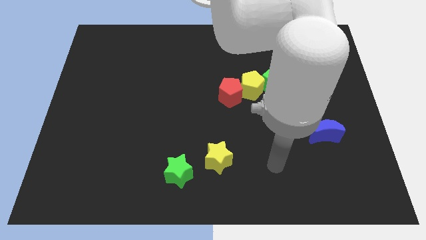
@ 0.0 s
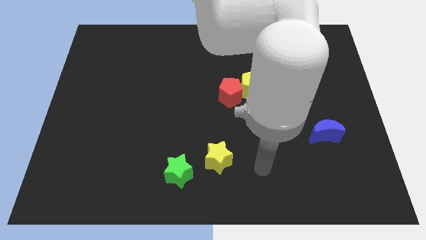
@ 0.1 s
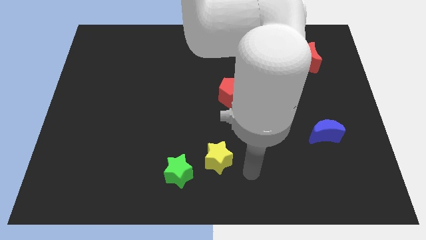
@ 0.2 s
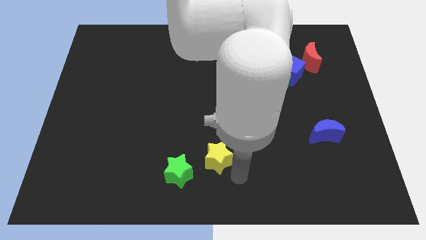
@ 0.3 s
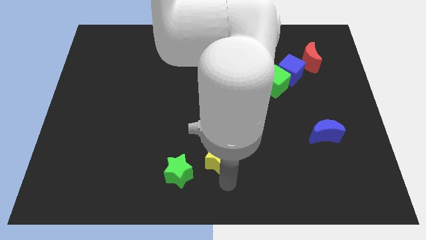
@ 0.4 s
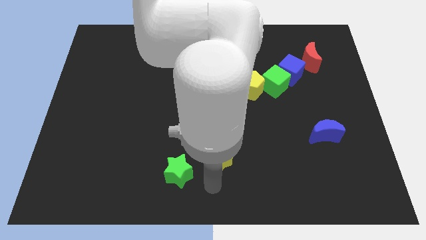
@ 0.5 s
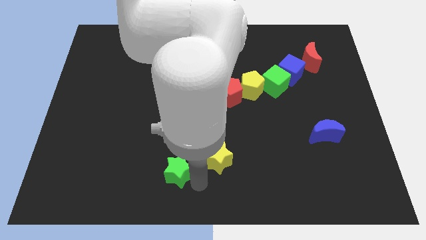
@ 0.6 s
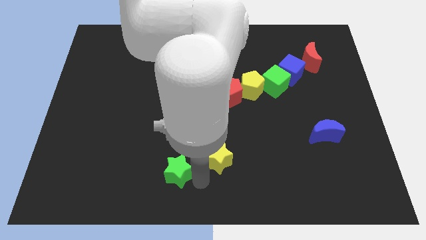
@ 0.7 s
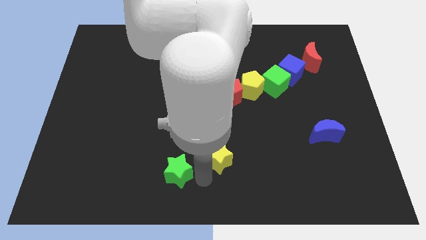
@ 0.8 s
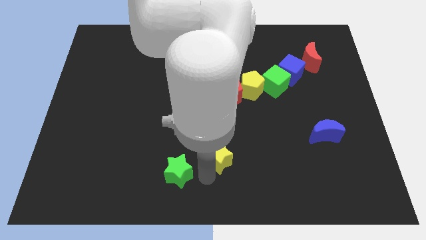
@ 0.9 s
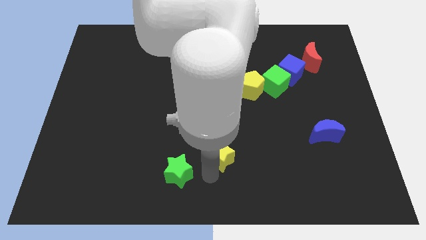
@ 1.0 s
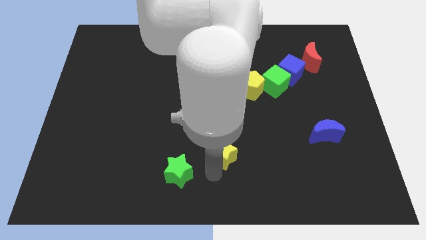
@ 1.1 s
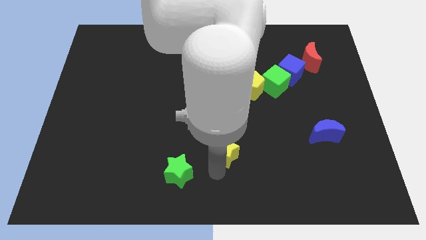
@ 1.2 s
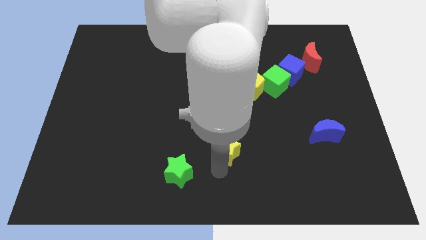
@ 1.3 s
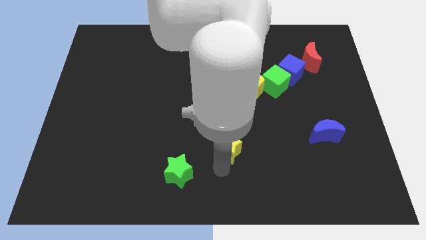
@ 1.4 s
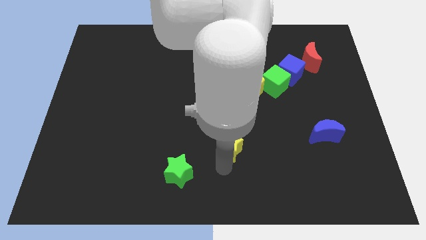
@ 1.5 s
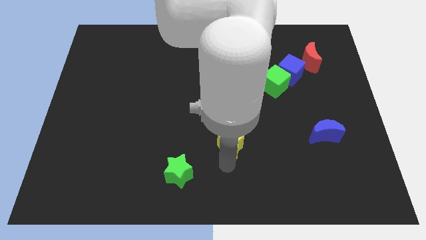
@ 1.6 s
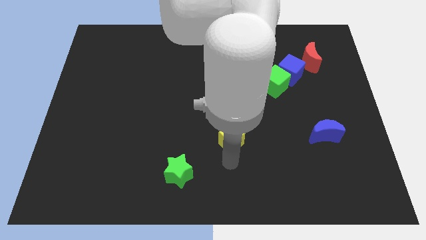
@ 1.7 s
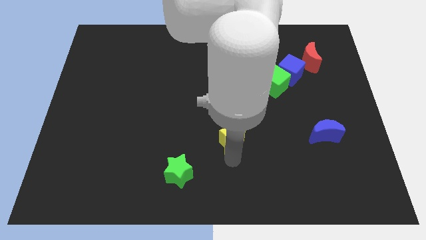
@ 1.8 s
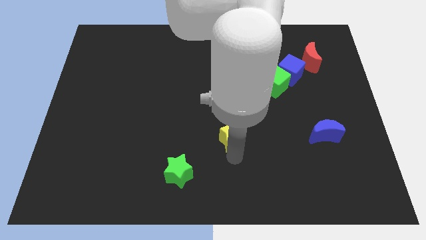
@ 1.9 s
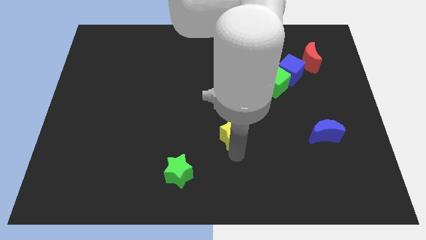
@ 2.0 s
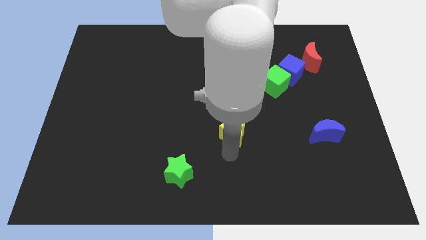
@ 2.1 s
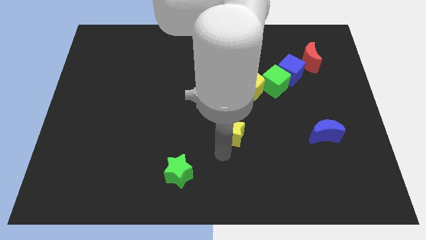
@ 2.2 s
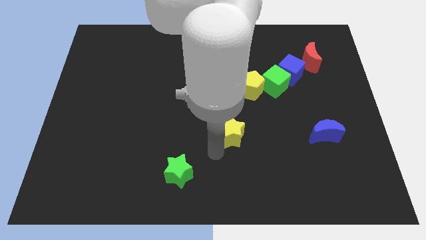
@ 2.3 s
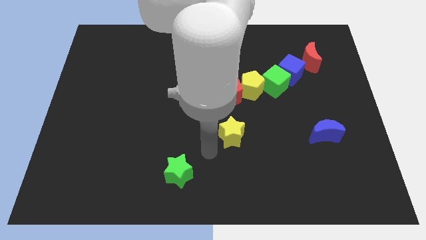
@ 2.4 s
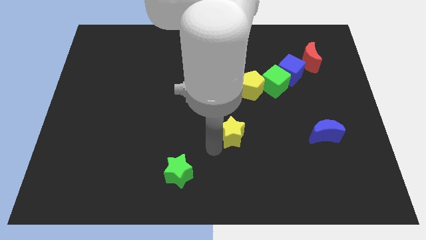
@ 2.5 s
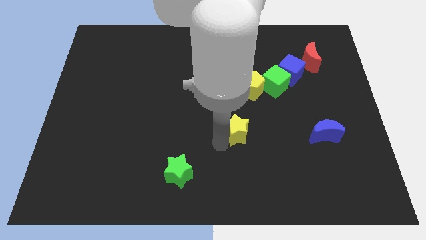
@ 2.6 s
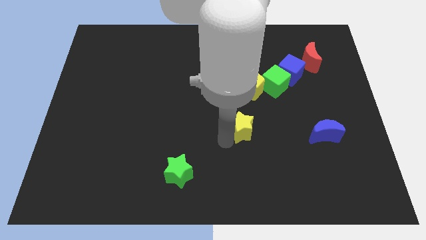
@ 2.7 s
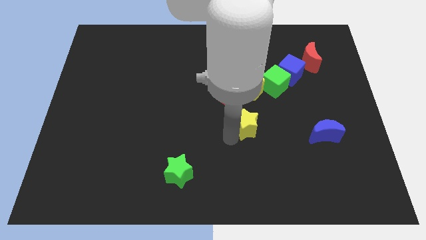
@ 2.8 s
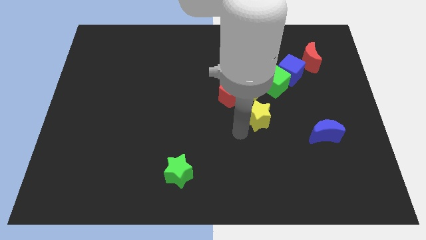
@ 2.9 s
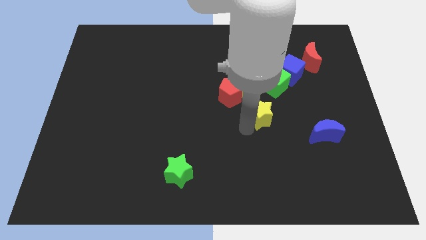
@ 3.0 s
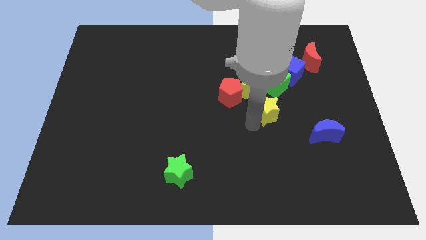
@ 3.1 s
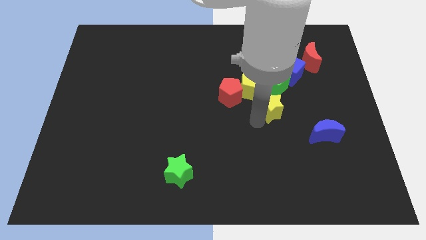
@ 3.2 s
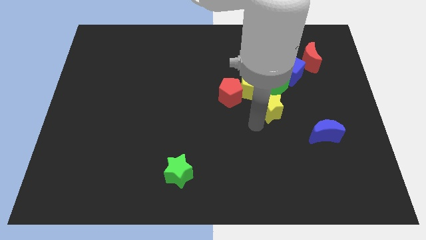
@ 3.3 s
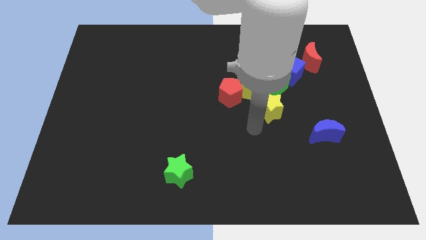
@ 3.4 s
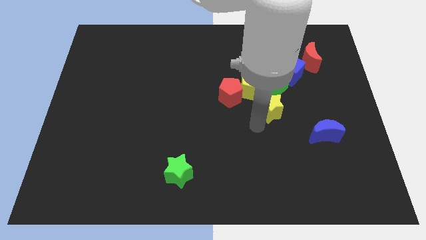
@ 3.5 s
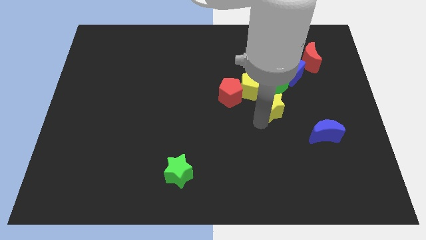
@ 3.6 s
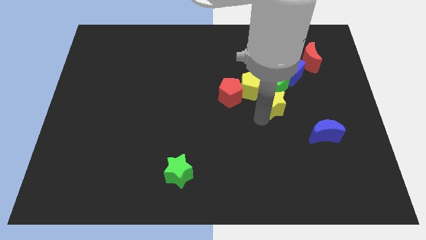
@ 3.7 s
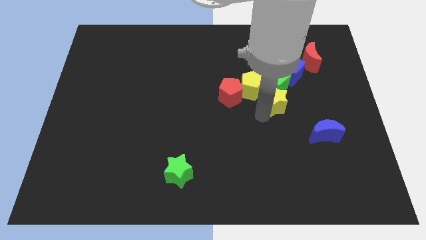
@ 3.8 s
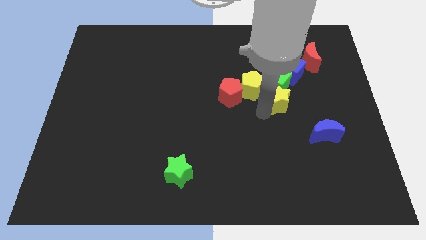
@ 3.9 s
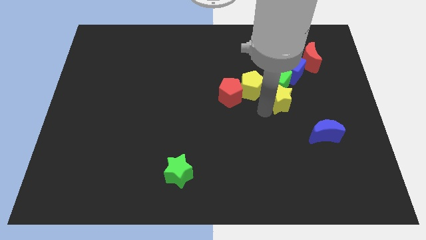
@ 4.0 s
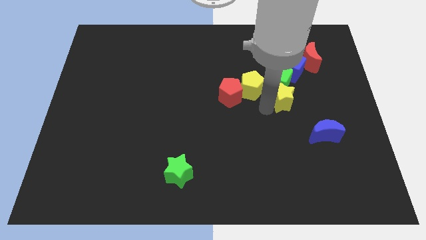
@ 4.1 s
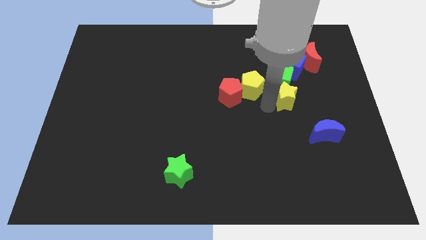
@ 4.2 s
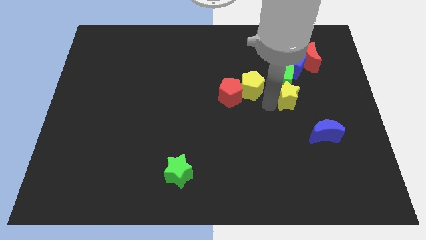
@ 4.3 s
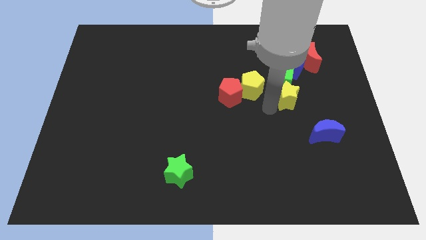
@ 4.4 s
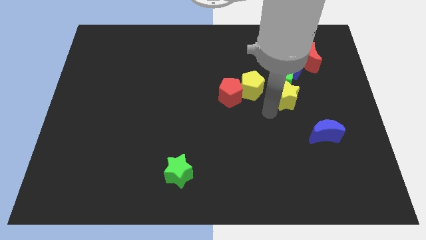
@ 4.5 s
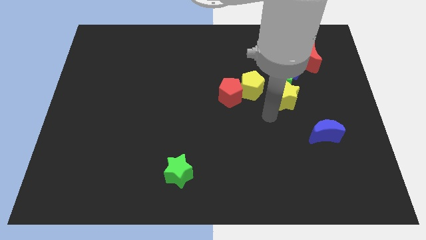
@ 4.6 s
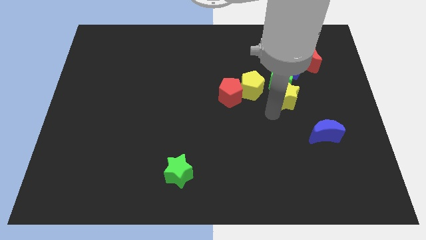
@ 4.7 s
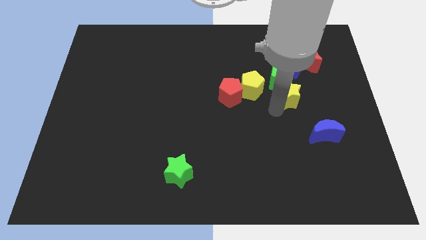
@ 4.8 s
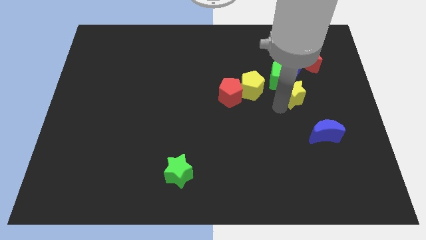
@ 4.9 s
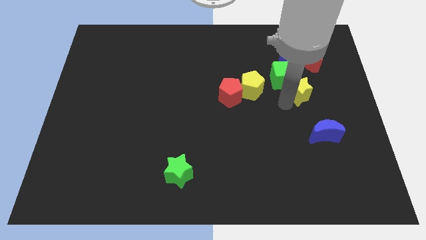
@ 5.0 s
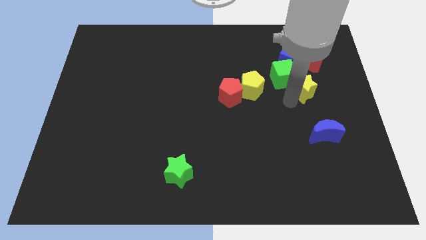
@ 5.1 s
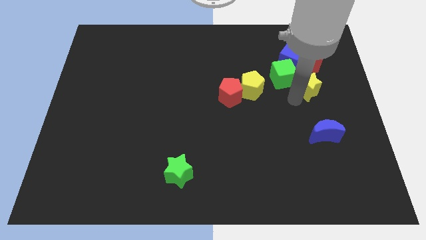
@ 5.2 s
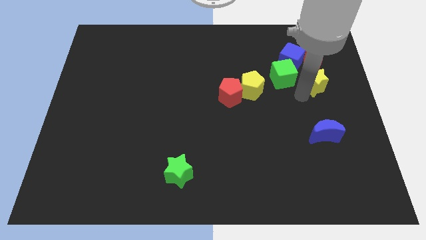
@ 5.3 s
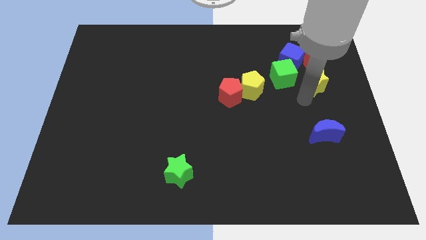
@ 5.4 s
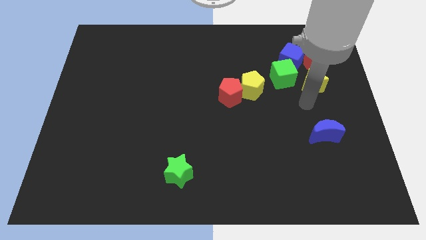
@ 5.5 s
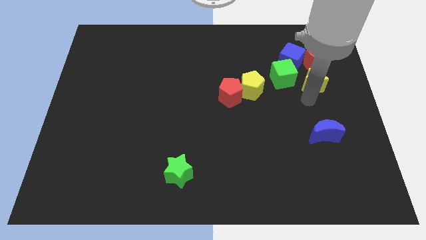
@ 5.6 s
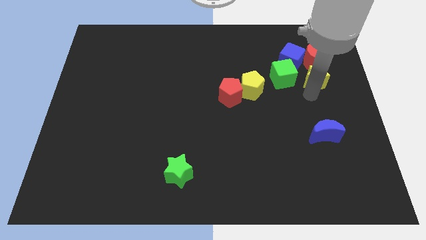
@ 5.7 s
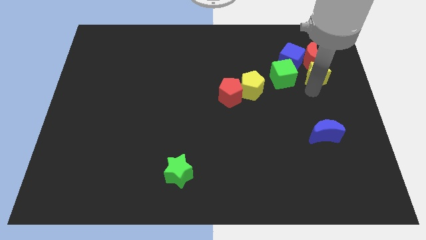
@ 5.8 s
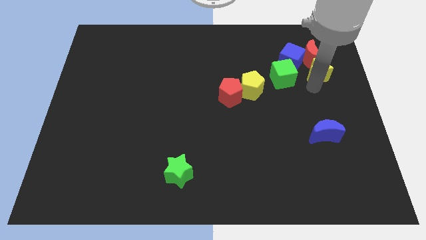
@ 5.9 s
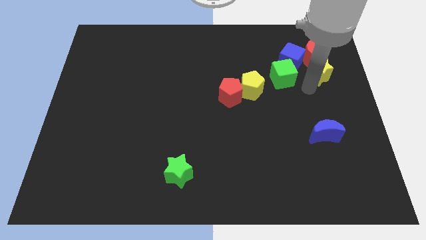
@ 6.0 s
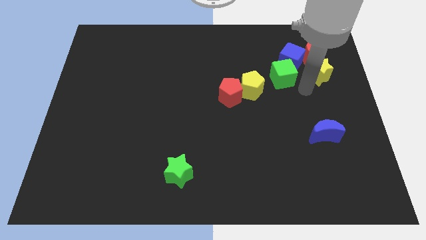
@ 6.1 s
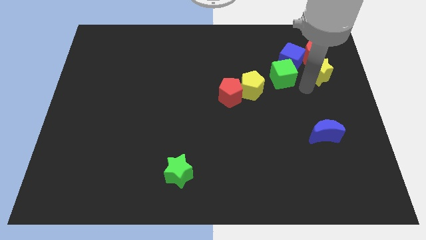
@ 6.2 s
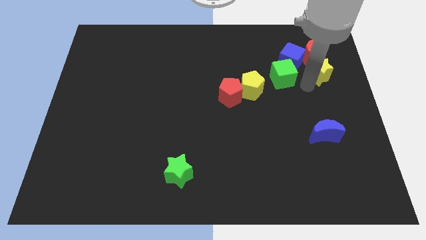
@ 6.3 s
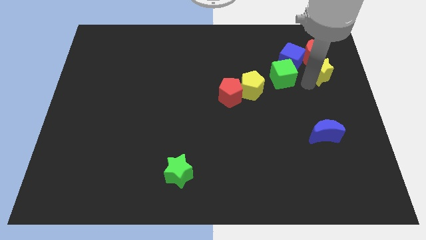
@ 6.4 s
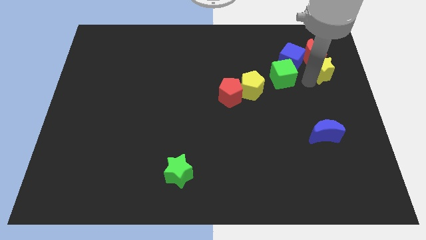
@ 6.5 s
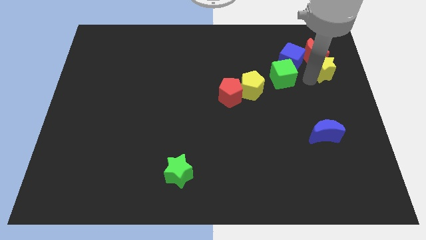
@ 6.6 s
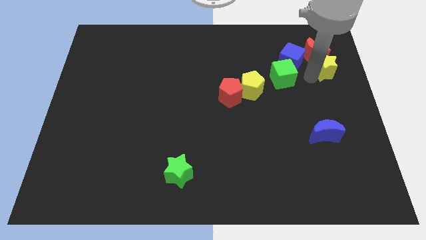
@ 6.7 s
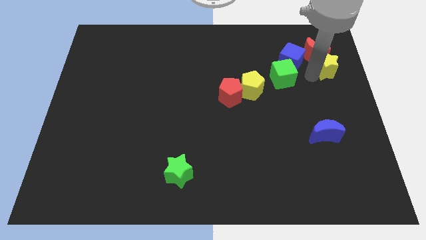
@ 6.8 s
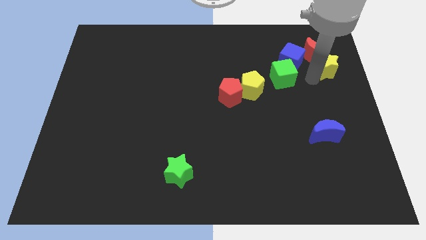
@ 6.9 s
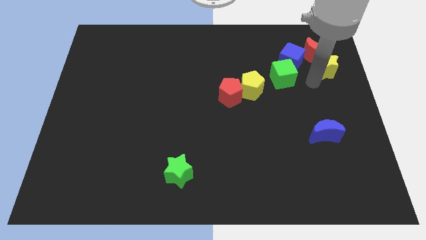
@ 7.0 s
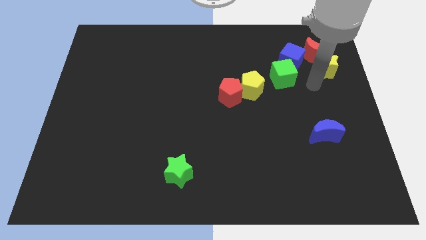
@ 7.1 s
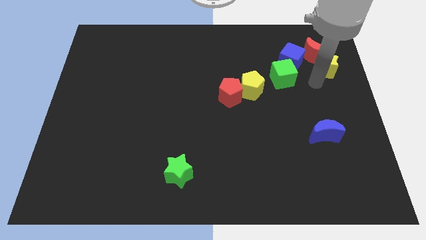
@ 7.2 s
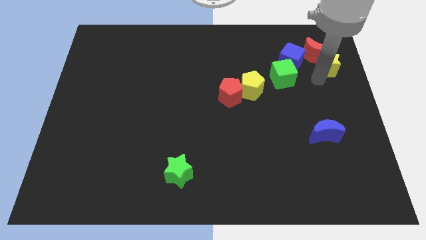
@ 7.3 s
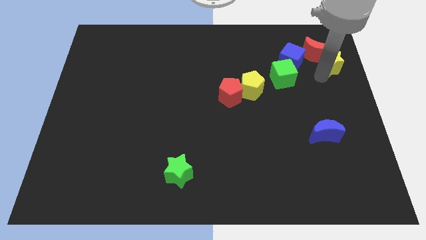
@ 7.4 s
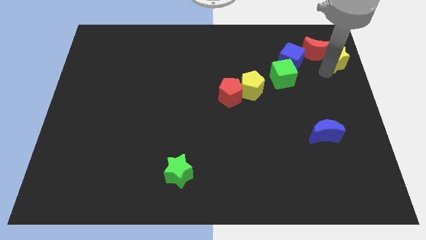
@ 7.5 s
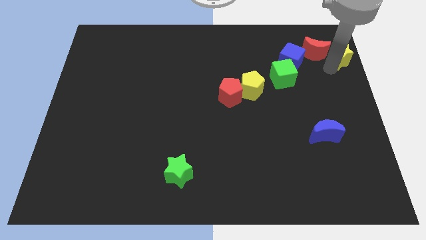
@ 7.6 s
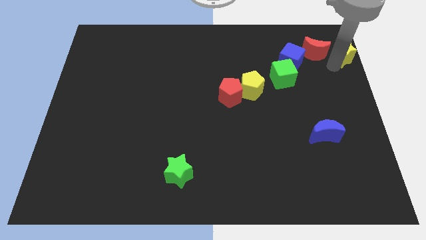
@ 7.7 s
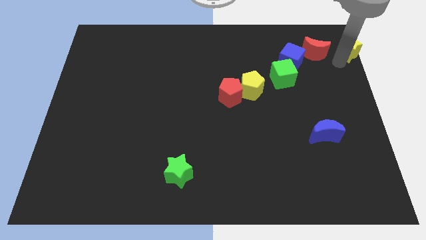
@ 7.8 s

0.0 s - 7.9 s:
put the yellow star to the upper right corner

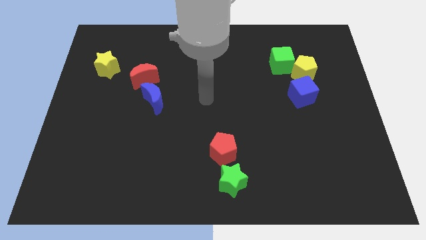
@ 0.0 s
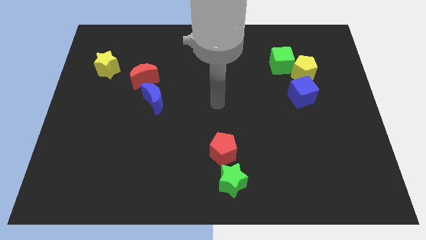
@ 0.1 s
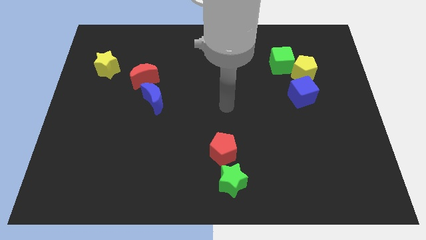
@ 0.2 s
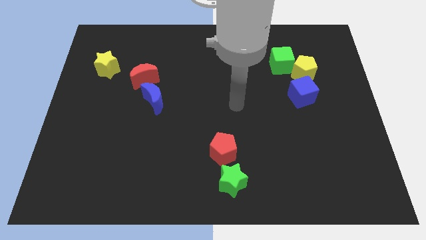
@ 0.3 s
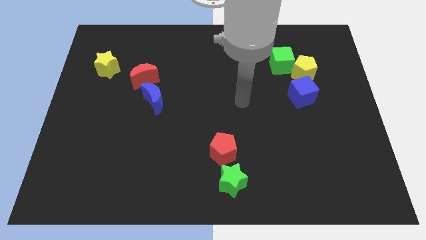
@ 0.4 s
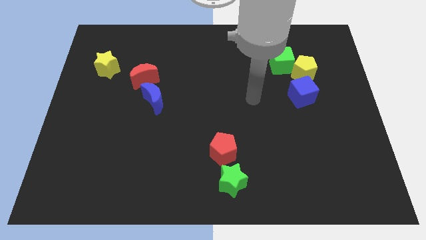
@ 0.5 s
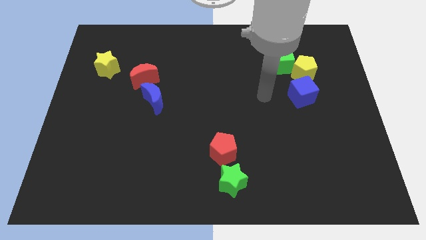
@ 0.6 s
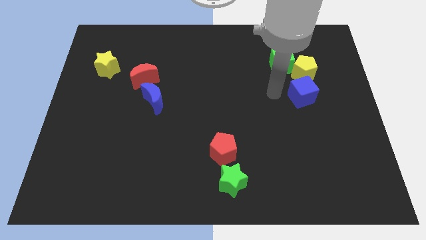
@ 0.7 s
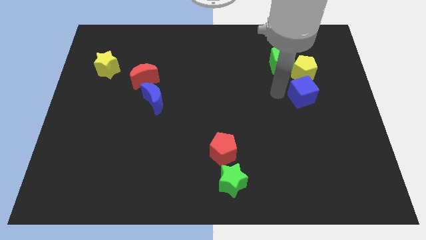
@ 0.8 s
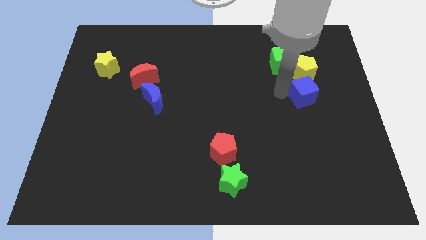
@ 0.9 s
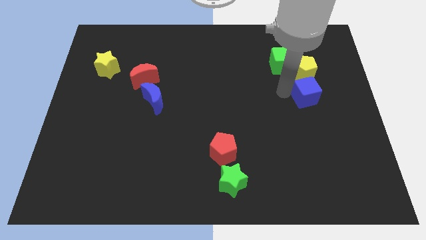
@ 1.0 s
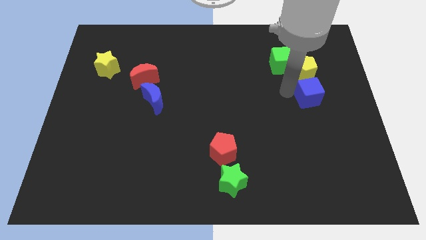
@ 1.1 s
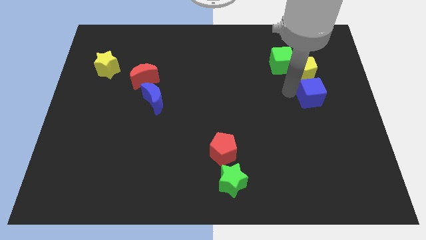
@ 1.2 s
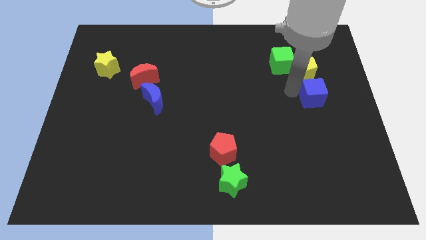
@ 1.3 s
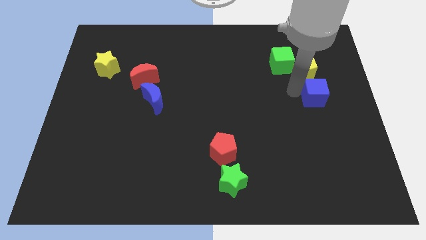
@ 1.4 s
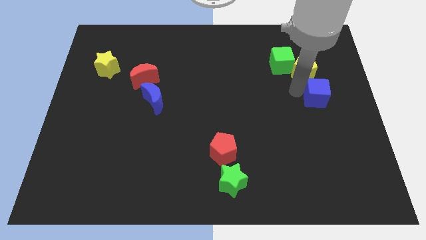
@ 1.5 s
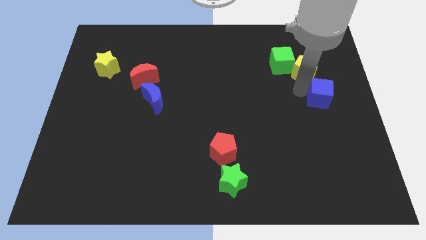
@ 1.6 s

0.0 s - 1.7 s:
push the blue cube to the right side of the board
